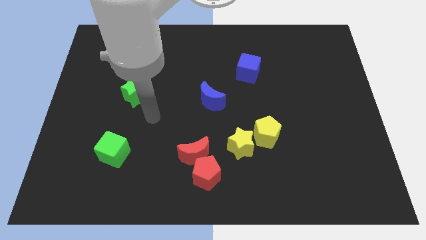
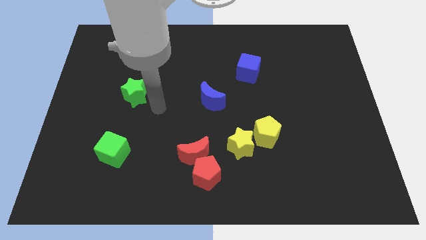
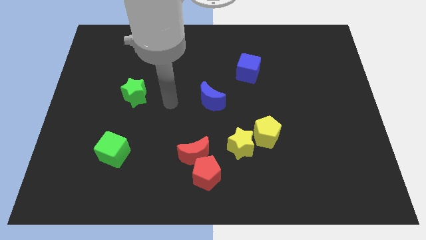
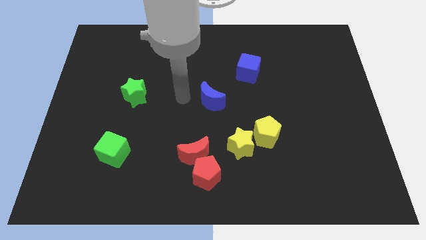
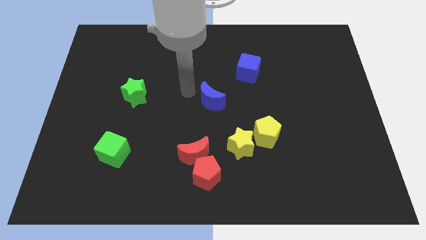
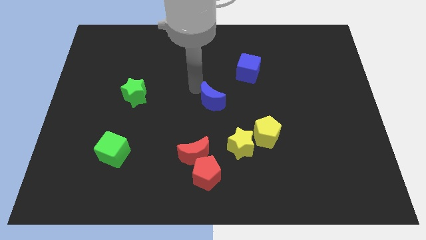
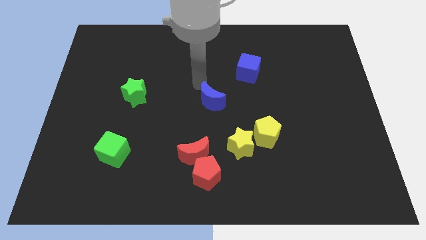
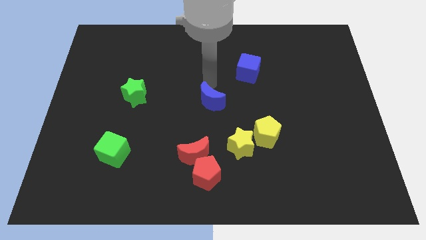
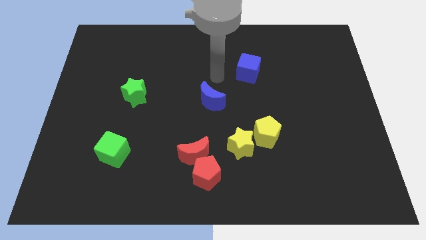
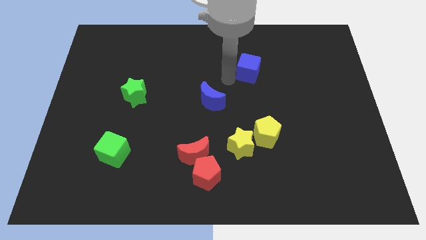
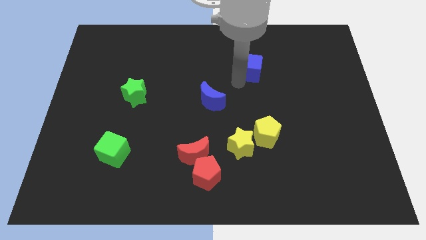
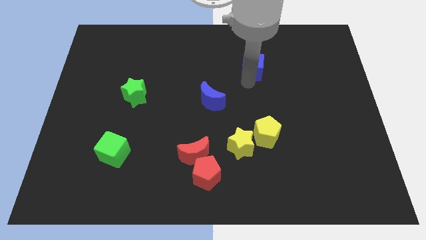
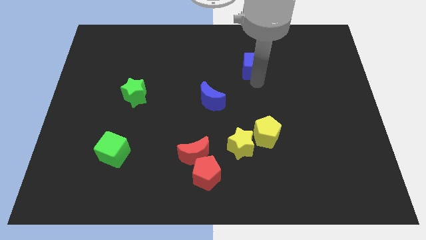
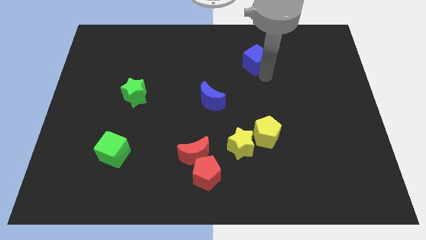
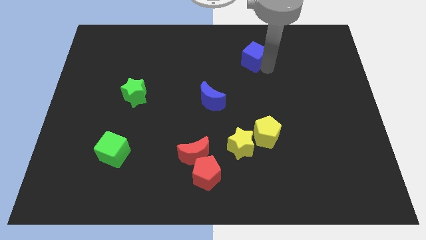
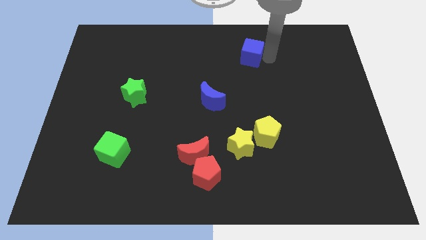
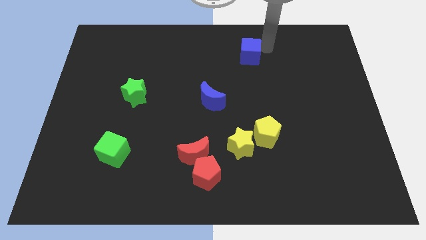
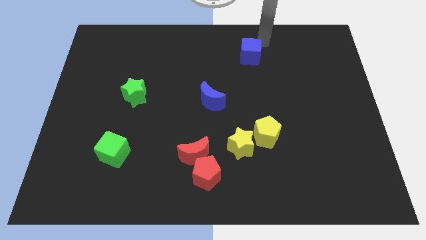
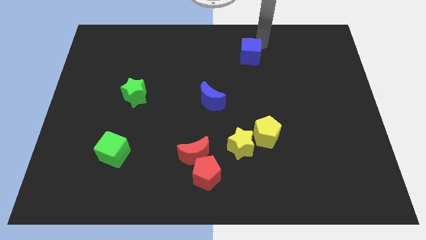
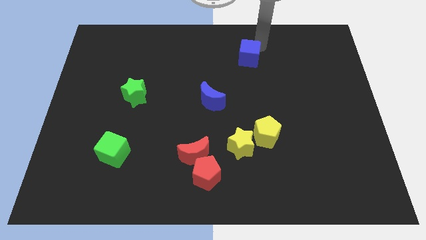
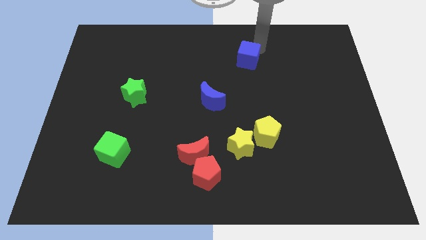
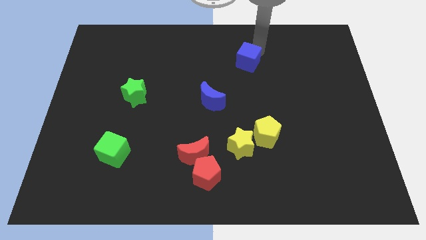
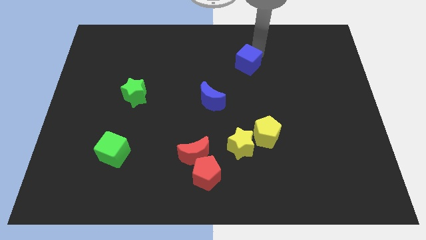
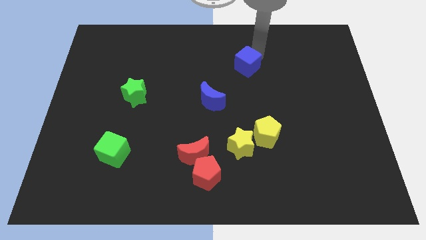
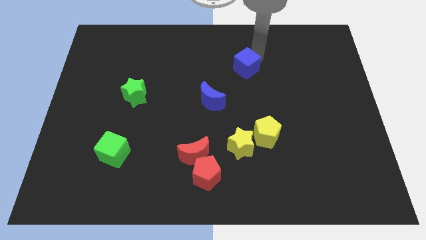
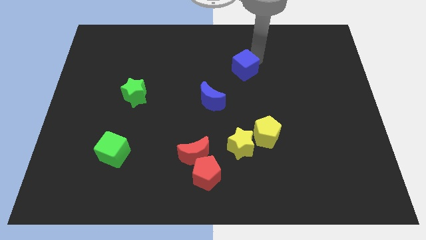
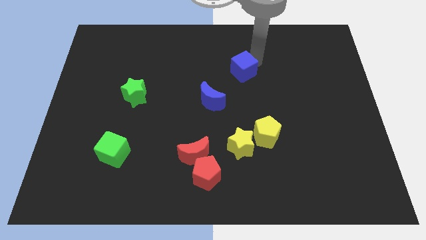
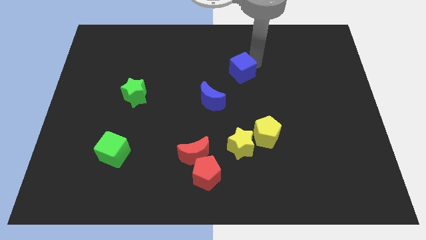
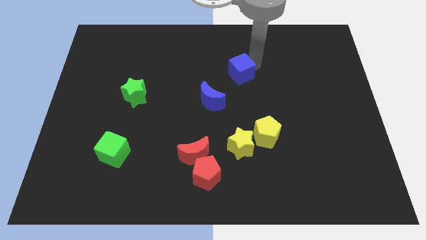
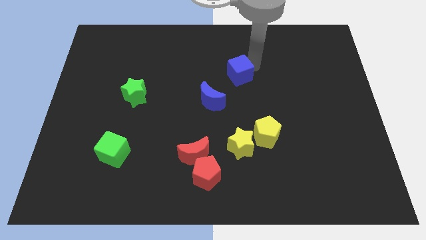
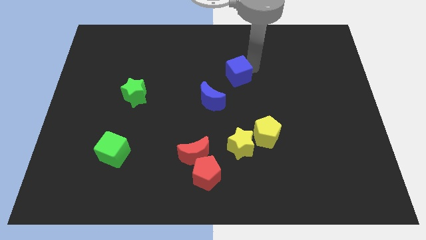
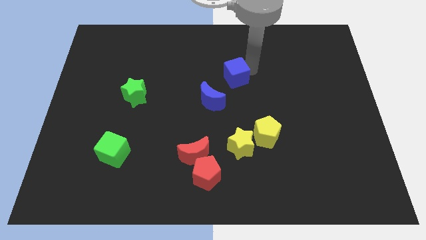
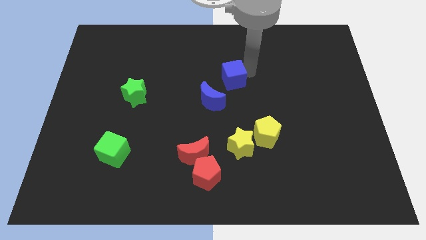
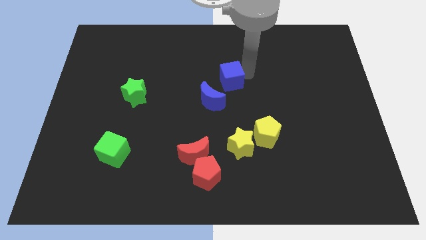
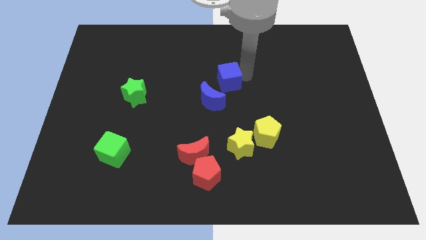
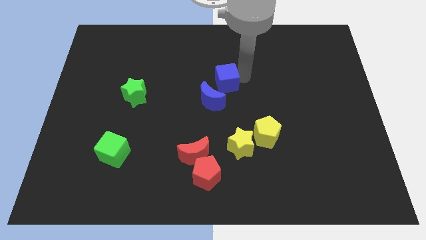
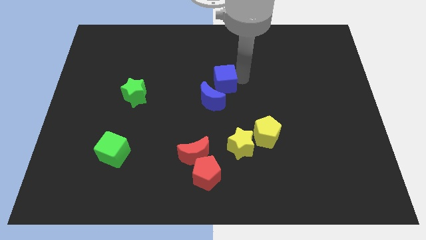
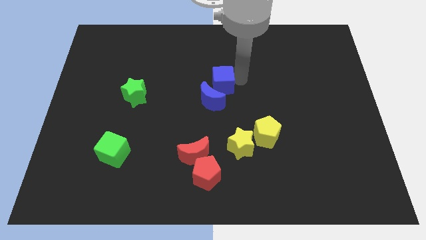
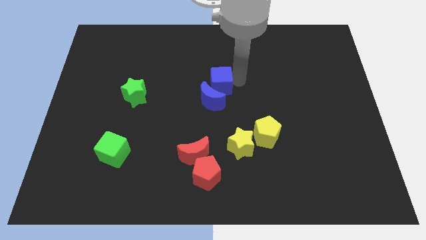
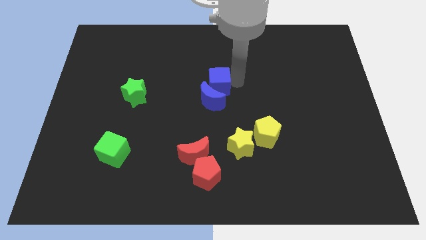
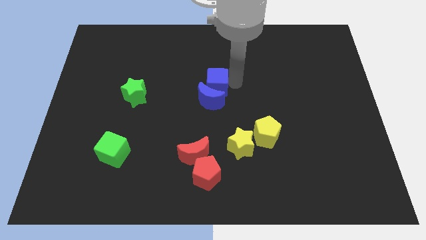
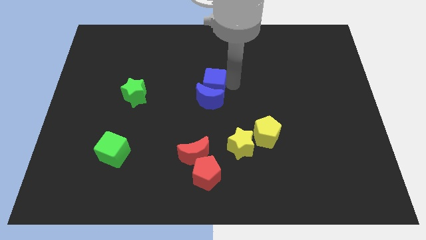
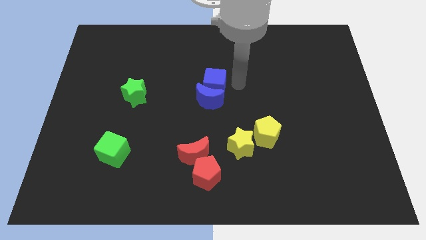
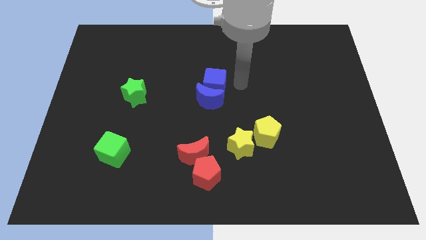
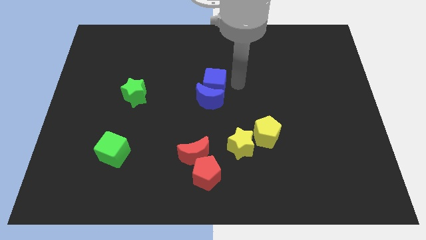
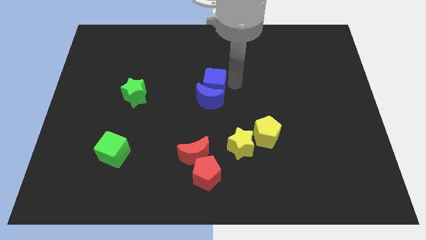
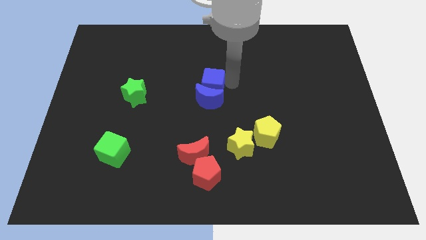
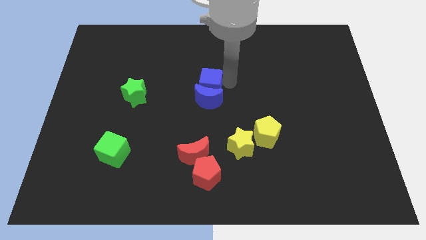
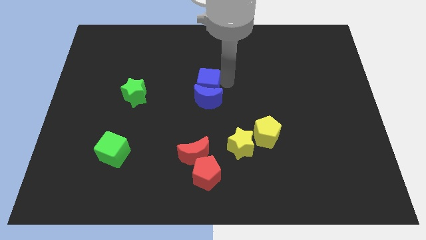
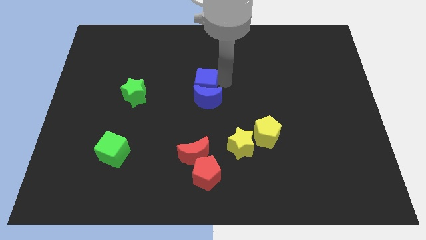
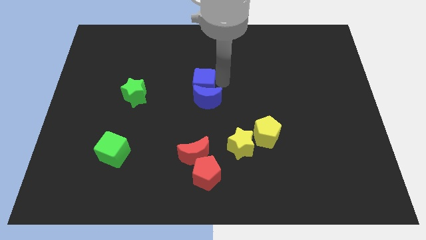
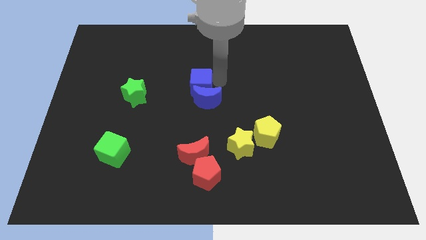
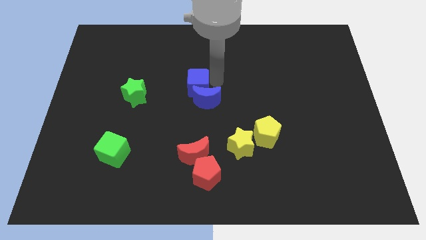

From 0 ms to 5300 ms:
push the blue cube just right of the green star

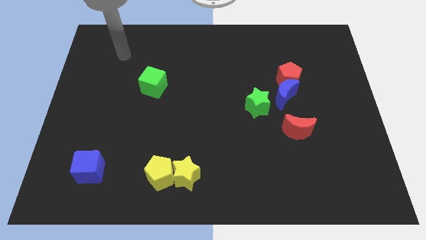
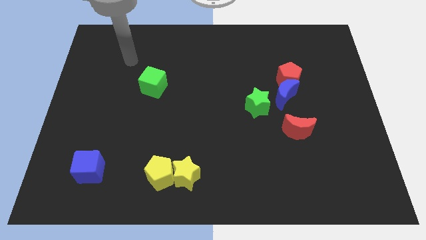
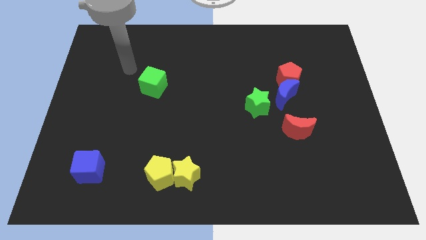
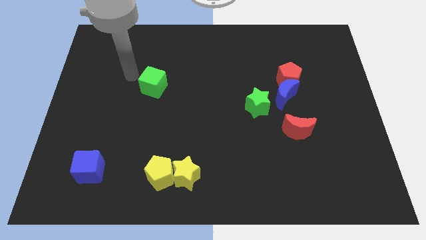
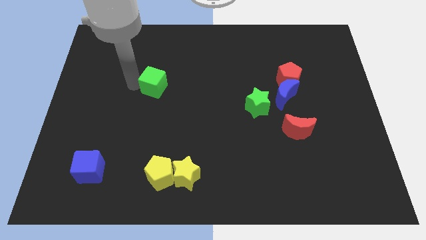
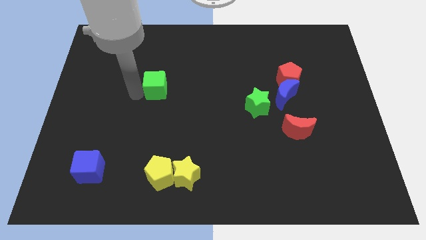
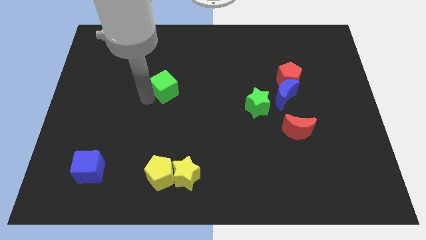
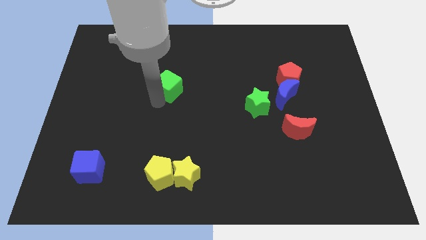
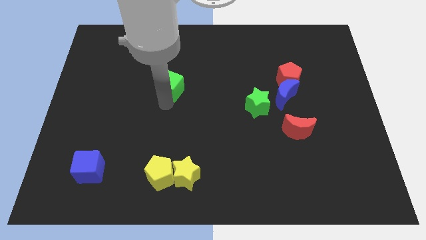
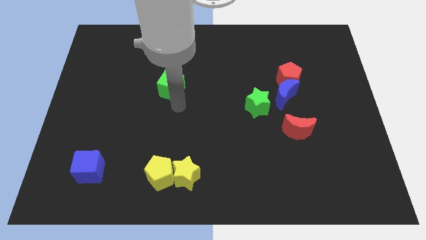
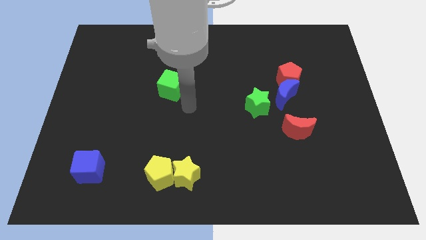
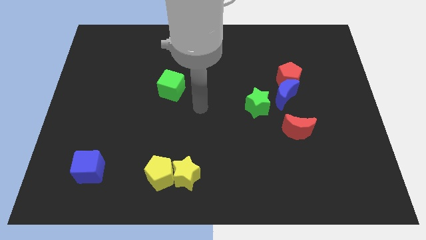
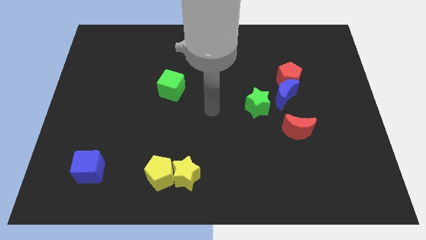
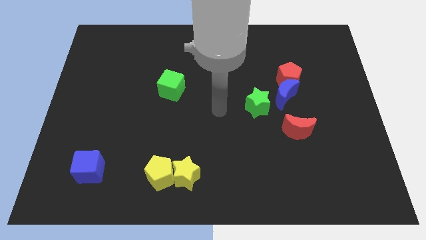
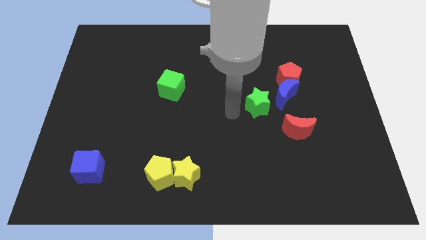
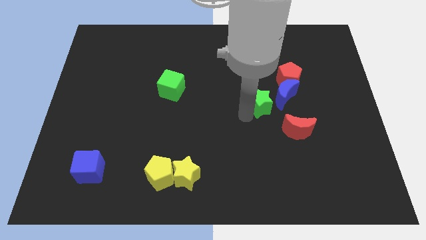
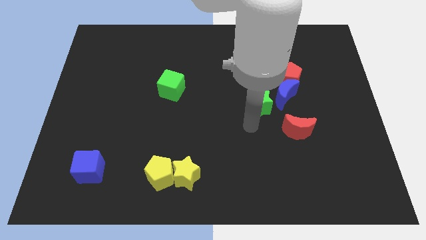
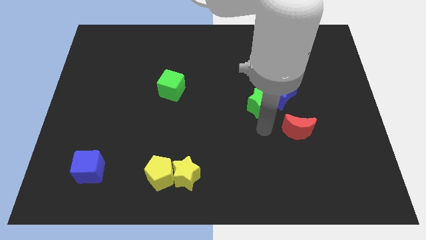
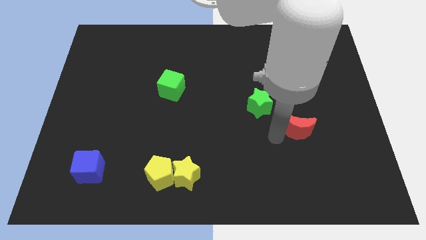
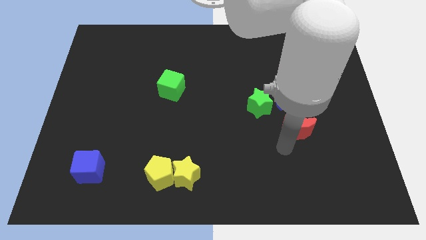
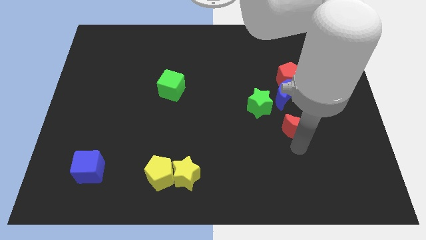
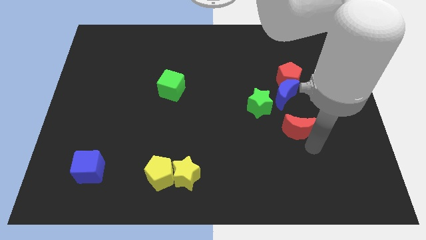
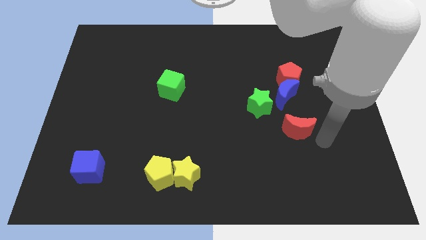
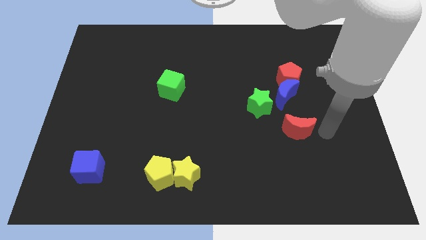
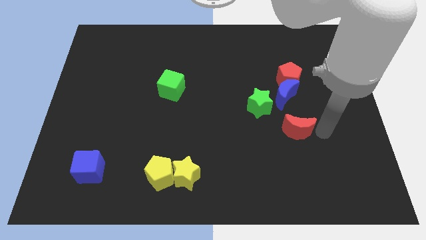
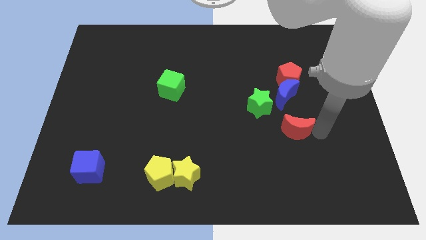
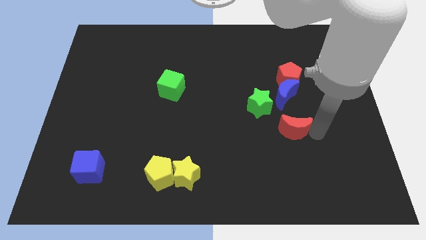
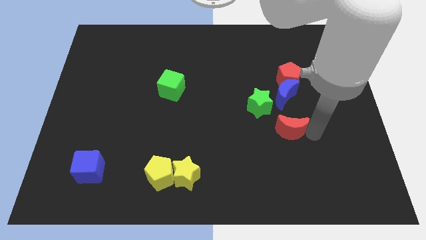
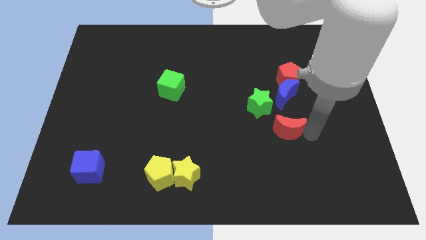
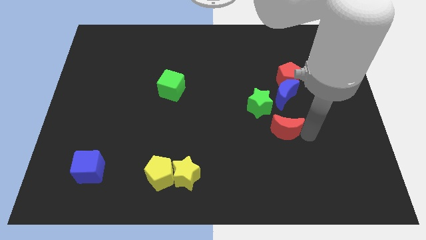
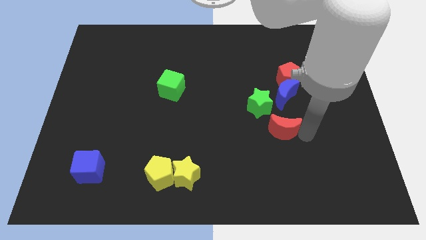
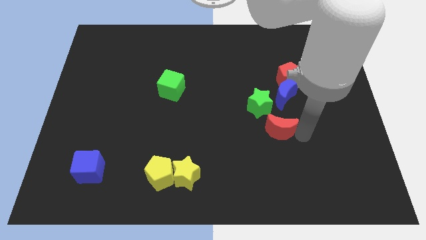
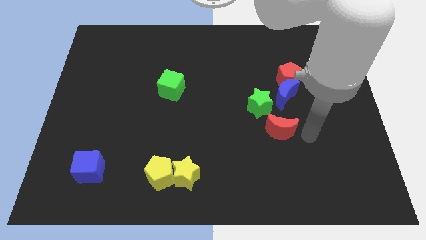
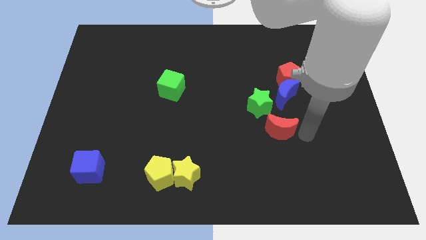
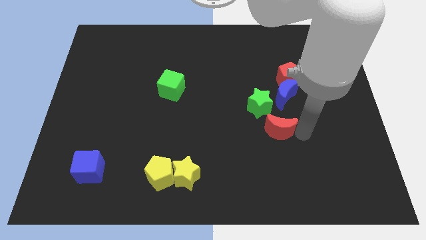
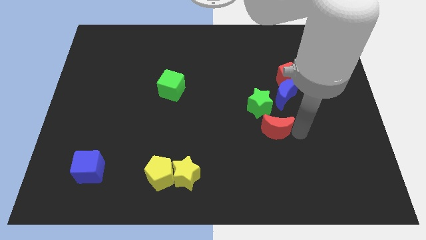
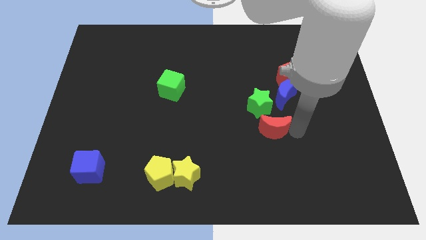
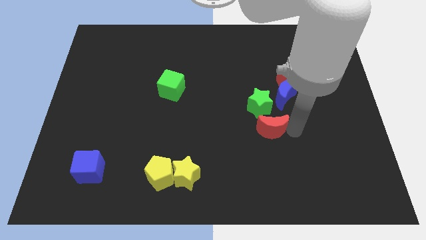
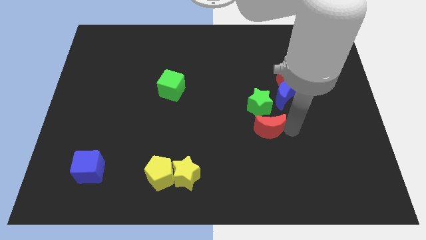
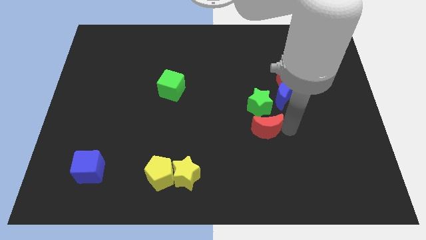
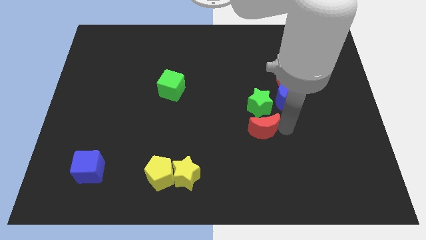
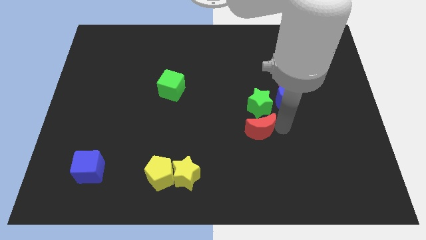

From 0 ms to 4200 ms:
slide the red moon to the bottom left of the green star
